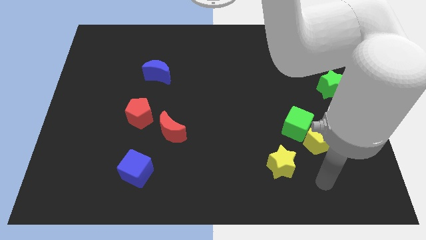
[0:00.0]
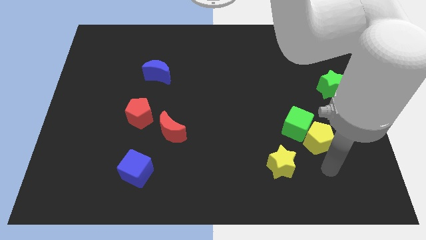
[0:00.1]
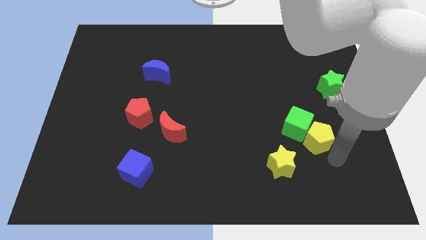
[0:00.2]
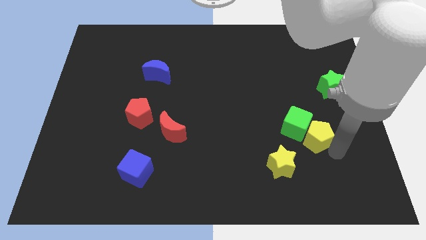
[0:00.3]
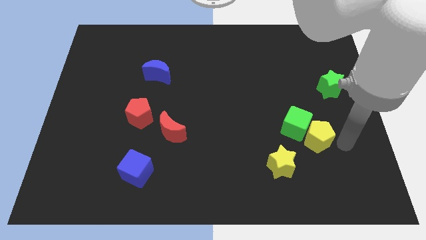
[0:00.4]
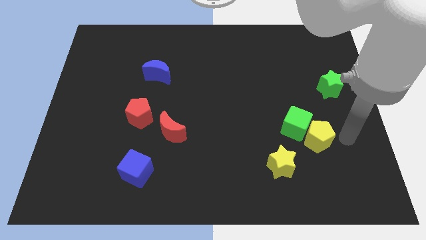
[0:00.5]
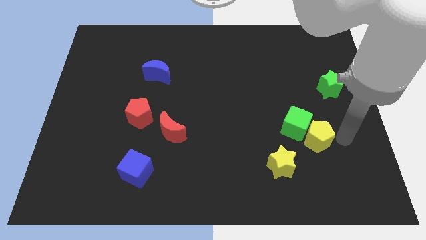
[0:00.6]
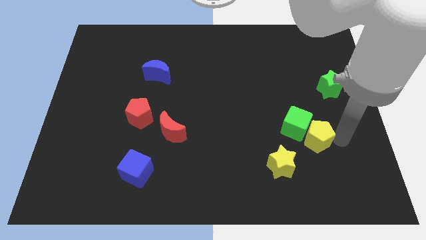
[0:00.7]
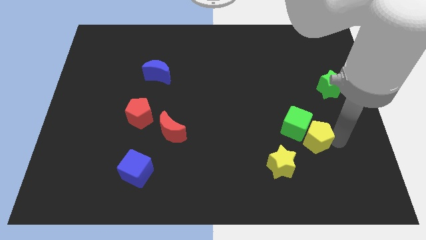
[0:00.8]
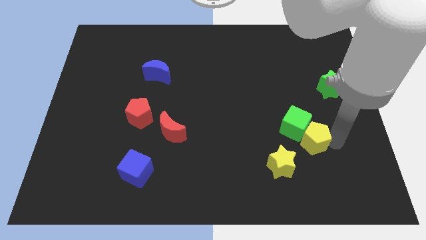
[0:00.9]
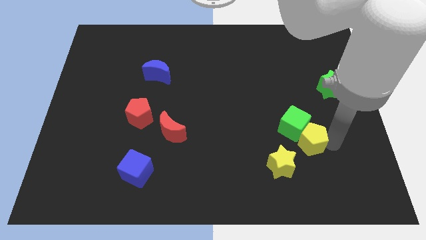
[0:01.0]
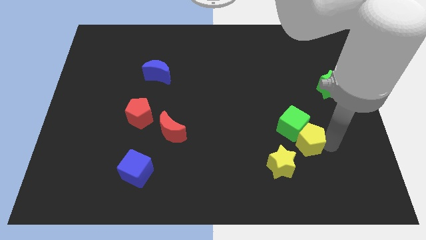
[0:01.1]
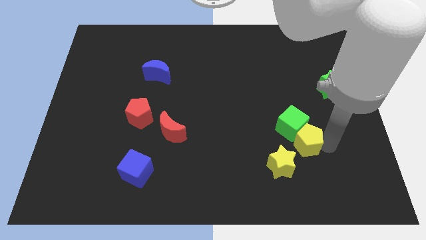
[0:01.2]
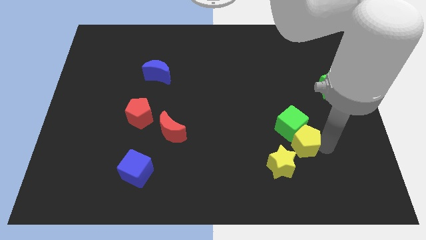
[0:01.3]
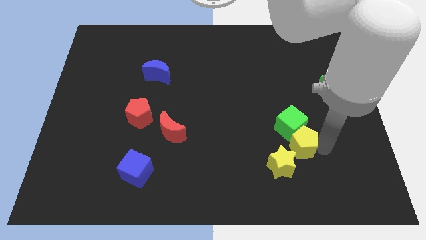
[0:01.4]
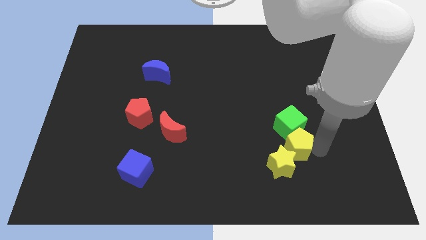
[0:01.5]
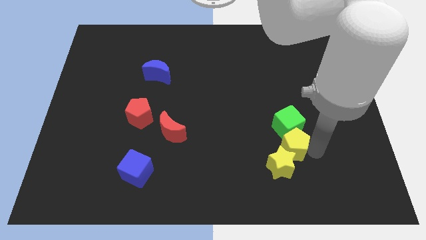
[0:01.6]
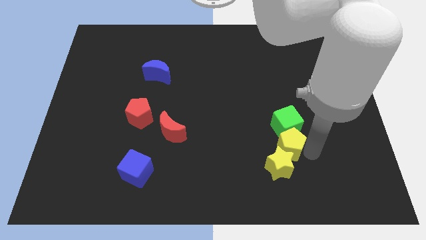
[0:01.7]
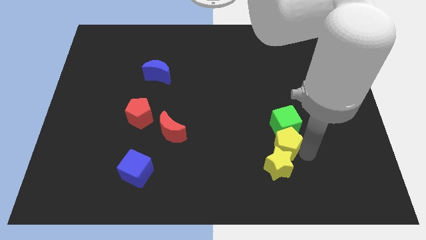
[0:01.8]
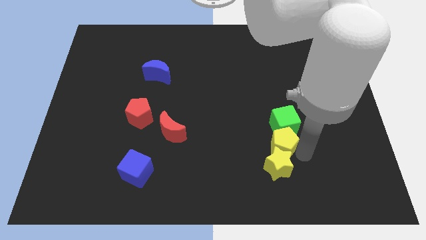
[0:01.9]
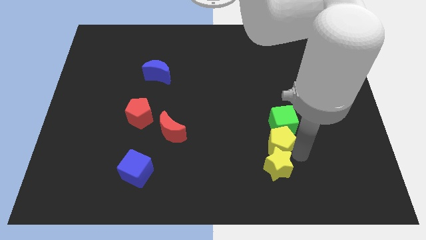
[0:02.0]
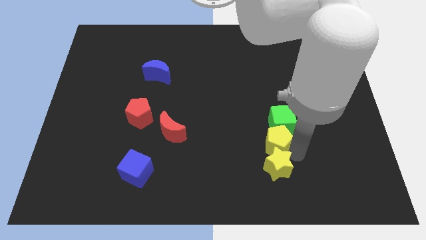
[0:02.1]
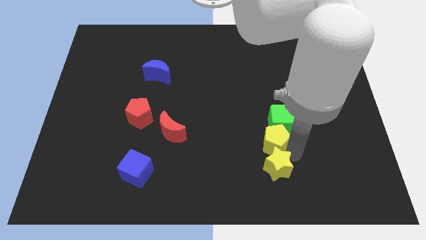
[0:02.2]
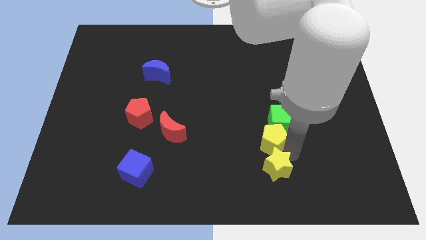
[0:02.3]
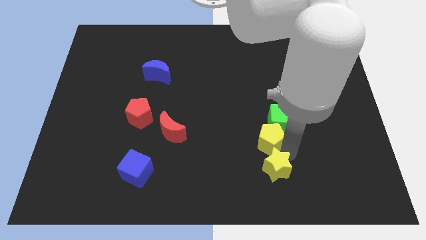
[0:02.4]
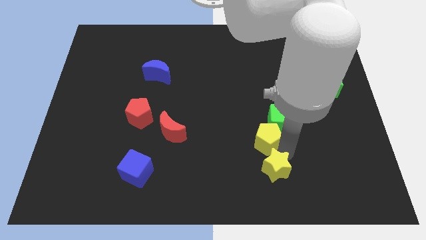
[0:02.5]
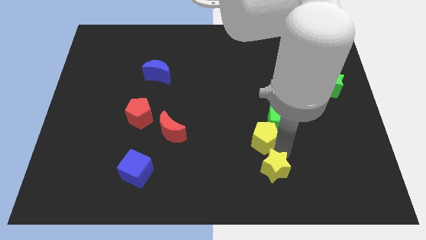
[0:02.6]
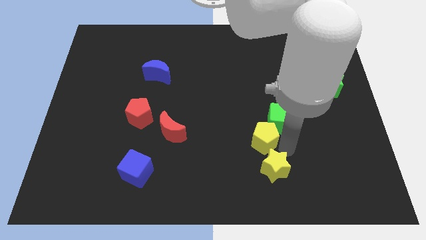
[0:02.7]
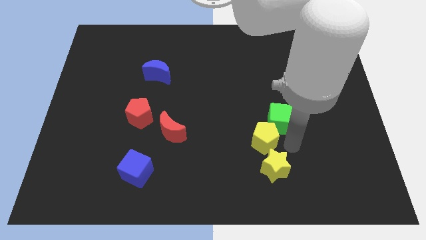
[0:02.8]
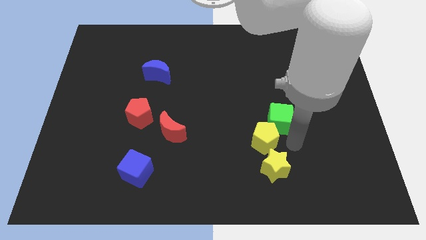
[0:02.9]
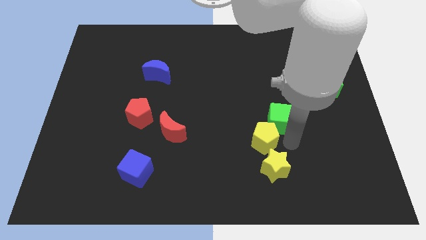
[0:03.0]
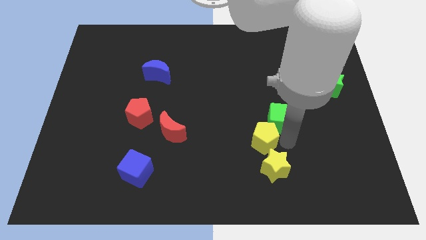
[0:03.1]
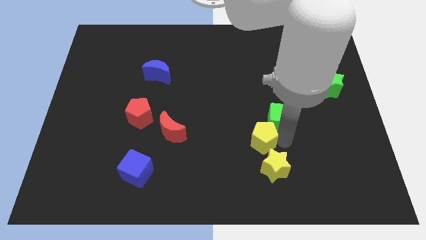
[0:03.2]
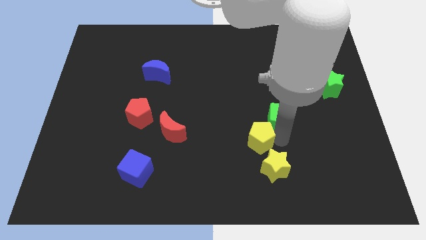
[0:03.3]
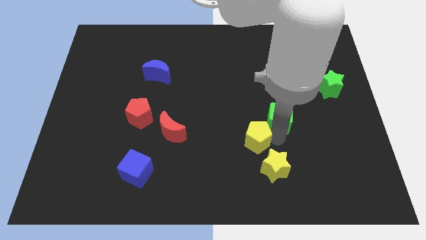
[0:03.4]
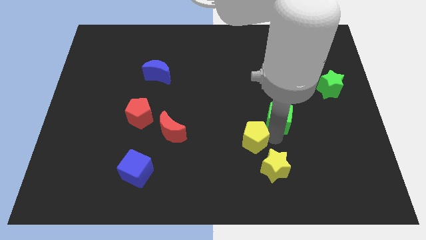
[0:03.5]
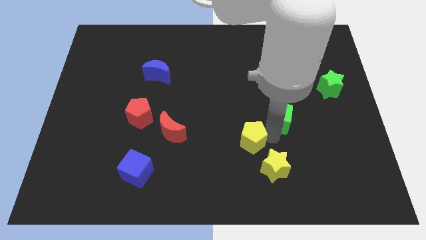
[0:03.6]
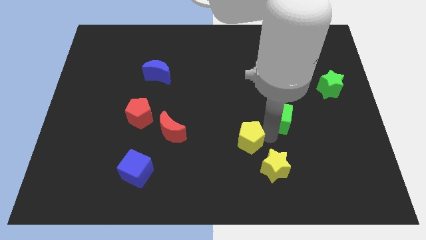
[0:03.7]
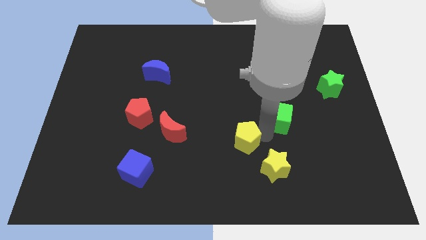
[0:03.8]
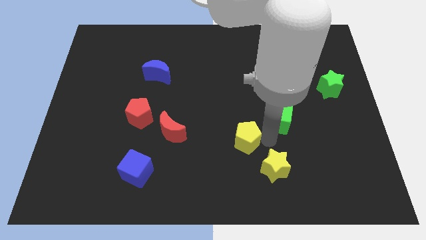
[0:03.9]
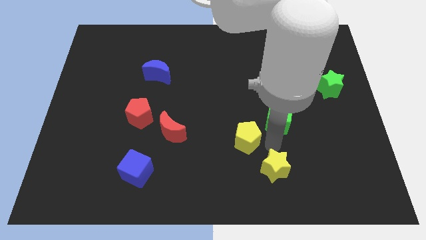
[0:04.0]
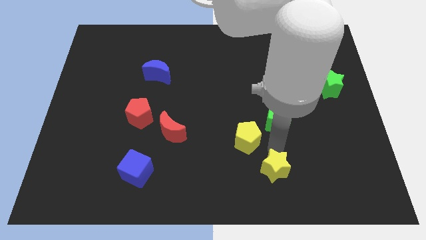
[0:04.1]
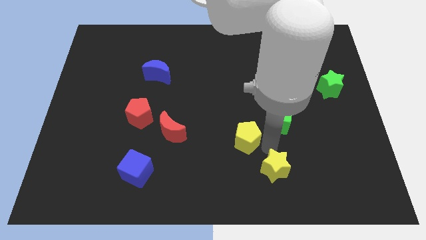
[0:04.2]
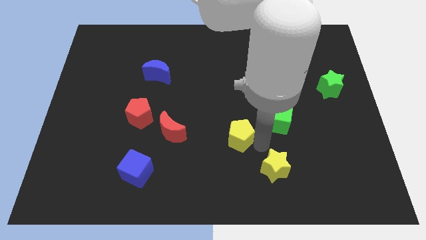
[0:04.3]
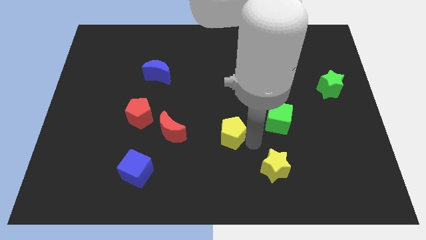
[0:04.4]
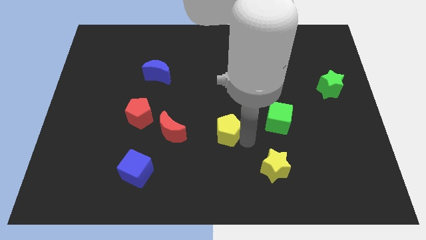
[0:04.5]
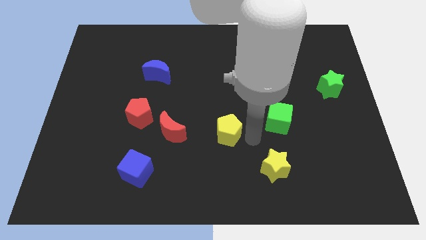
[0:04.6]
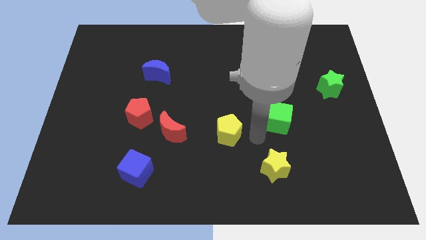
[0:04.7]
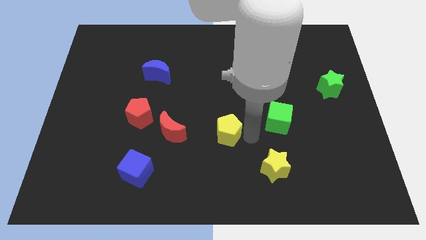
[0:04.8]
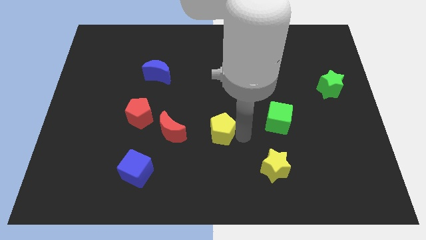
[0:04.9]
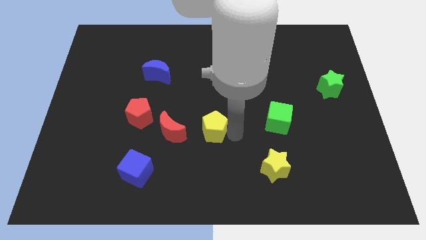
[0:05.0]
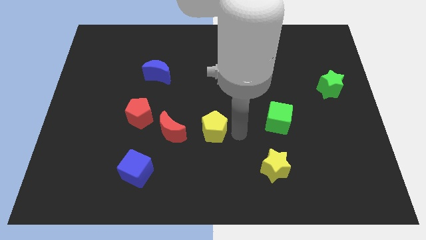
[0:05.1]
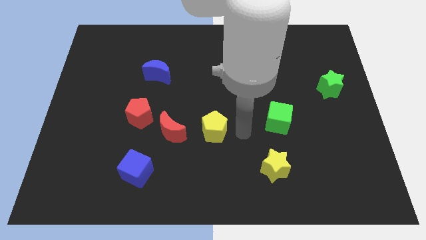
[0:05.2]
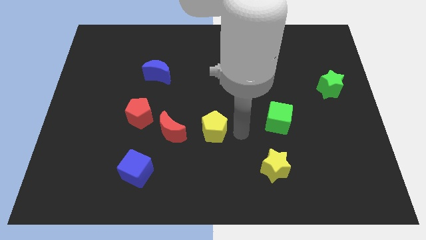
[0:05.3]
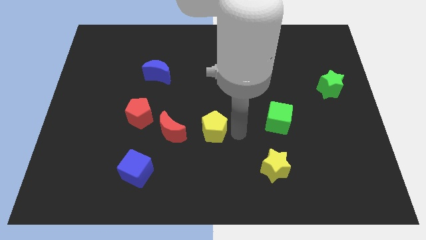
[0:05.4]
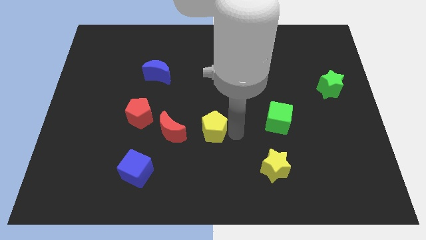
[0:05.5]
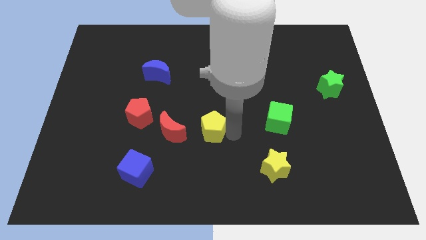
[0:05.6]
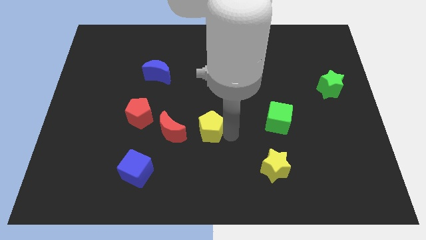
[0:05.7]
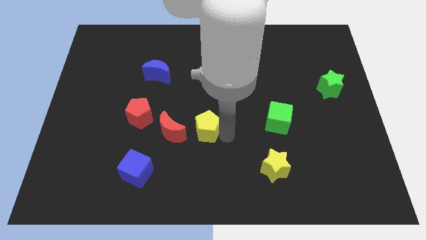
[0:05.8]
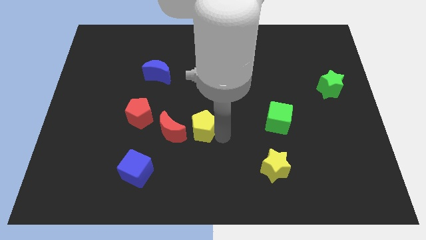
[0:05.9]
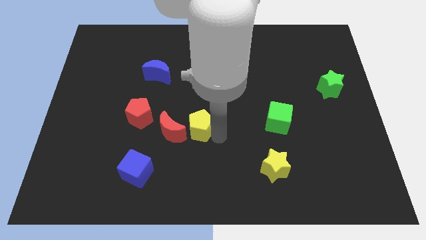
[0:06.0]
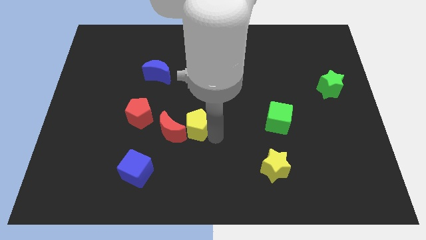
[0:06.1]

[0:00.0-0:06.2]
put the yellow pentagon to the red moon

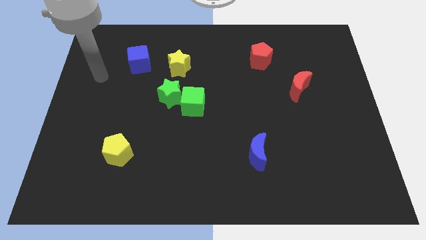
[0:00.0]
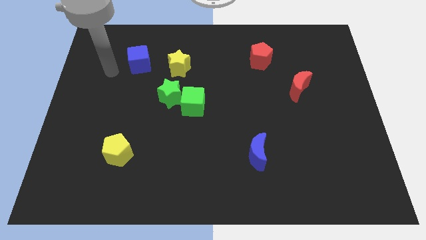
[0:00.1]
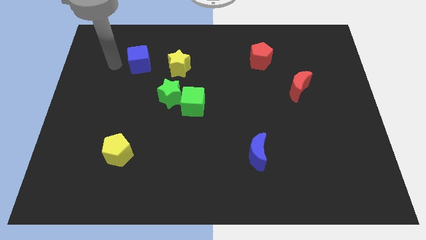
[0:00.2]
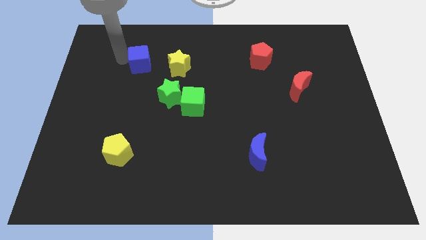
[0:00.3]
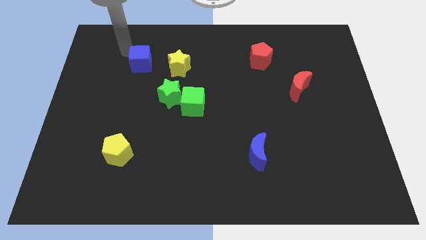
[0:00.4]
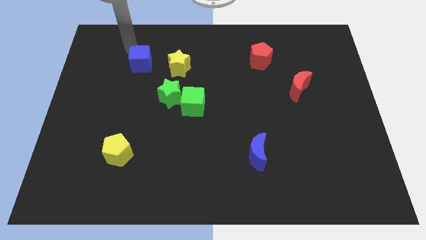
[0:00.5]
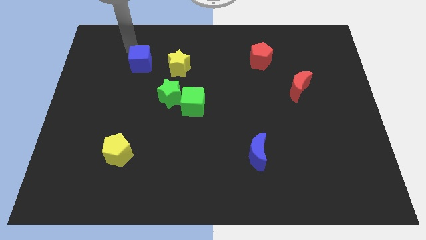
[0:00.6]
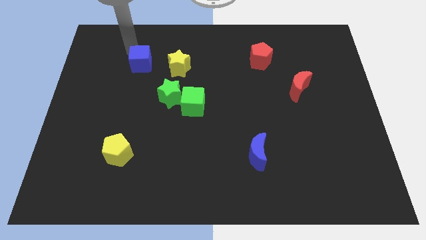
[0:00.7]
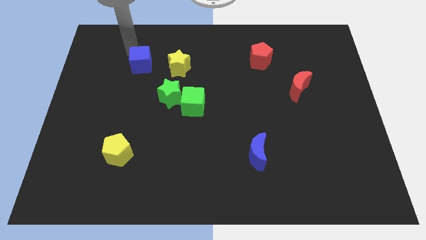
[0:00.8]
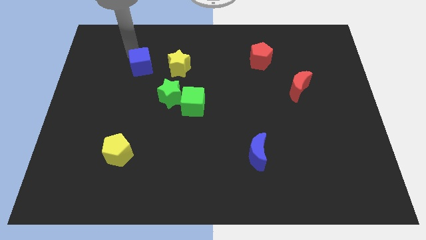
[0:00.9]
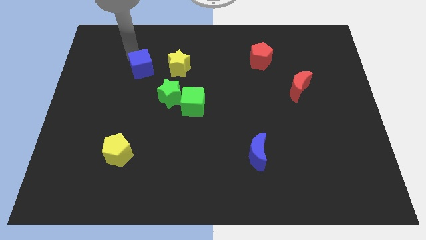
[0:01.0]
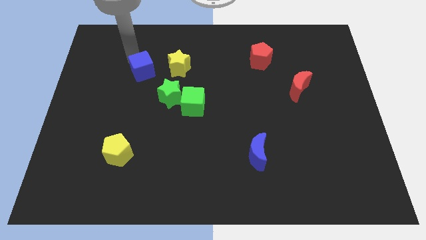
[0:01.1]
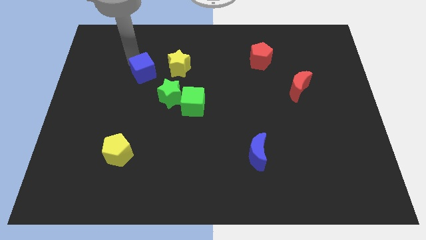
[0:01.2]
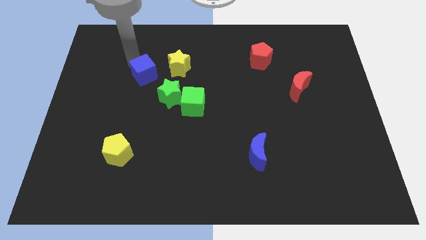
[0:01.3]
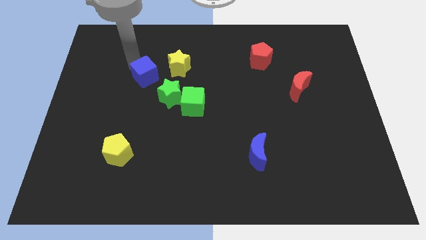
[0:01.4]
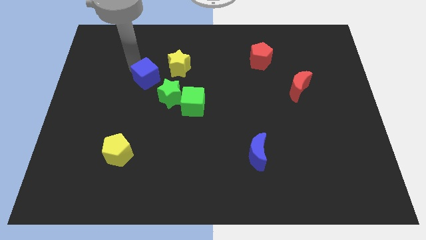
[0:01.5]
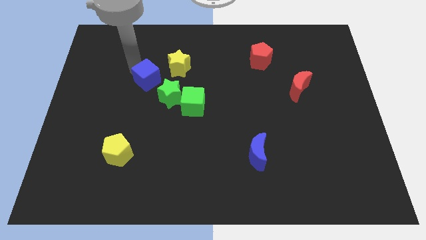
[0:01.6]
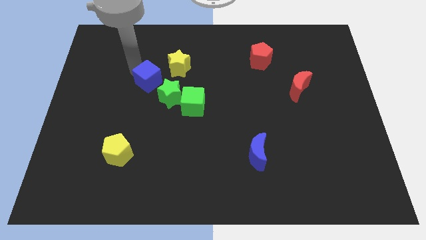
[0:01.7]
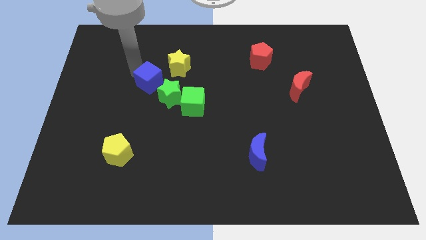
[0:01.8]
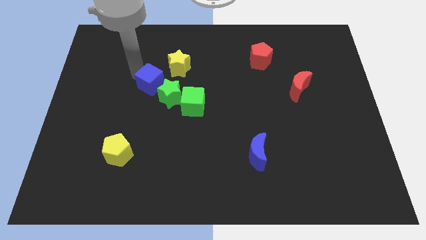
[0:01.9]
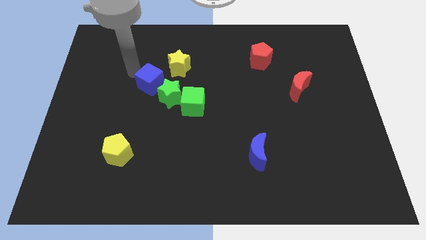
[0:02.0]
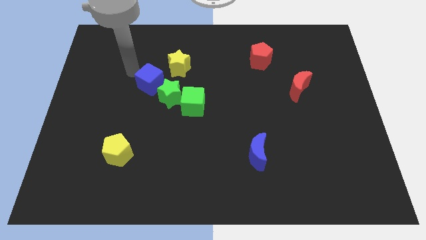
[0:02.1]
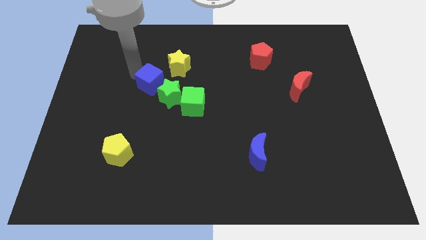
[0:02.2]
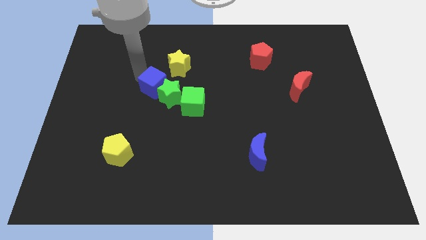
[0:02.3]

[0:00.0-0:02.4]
push the blue cube next to the green star
